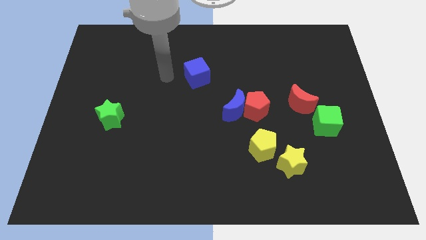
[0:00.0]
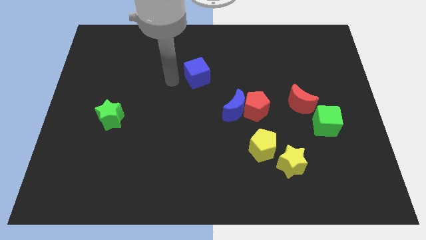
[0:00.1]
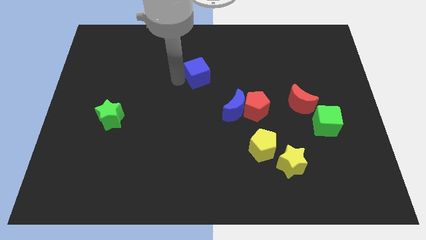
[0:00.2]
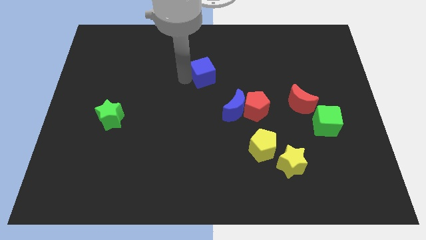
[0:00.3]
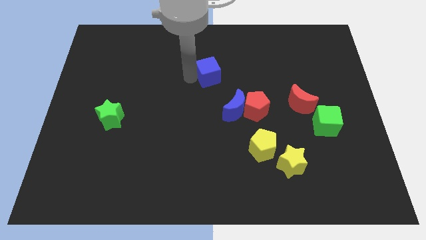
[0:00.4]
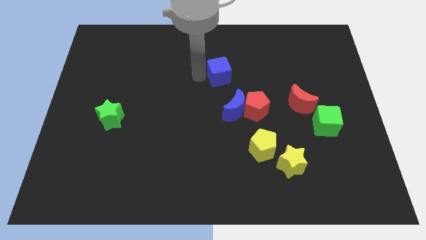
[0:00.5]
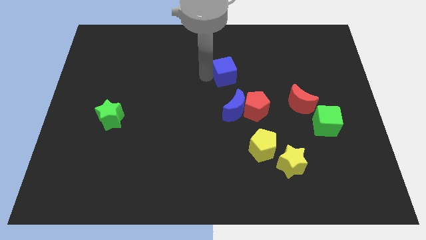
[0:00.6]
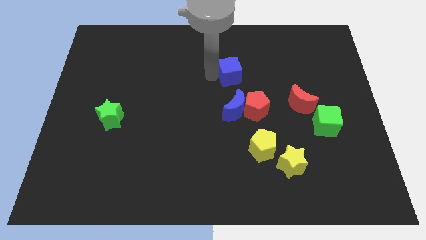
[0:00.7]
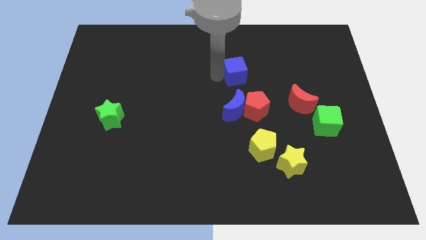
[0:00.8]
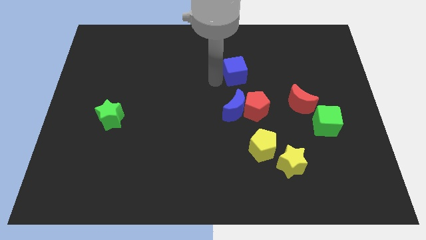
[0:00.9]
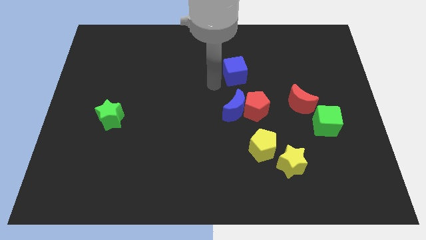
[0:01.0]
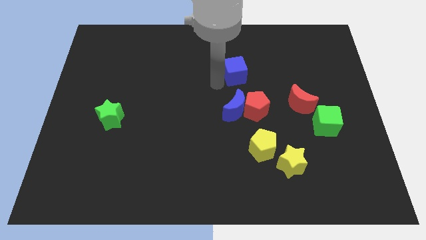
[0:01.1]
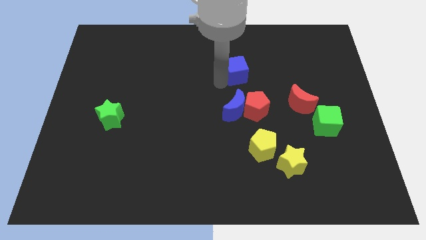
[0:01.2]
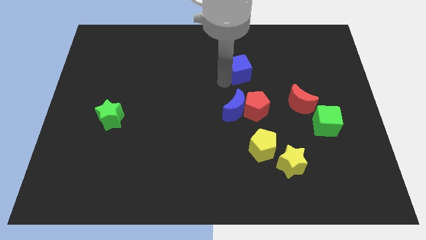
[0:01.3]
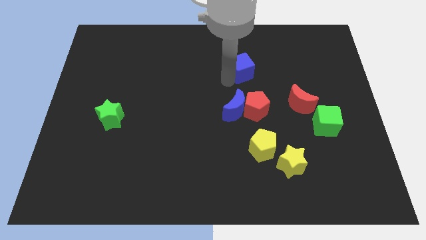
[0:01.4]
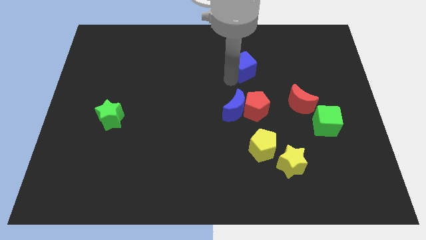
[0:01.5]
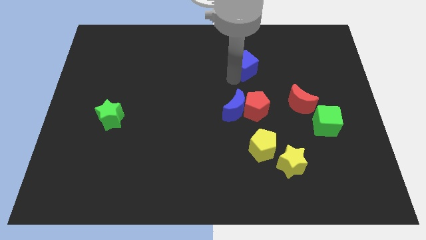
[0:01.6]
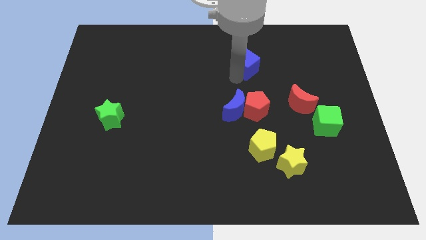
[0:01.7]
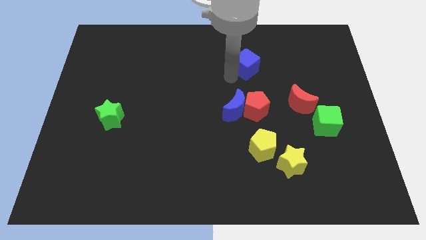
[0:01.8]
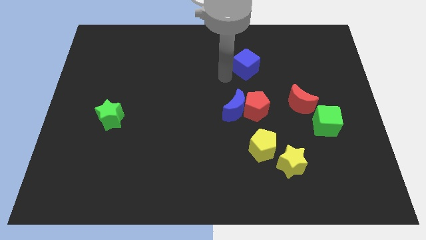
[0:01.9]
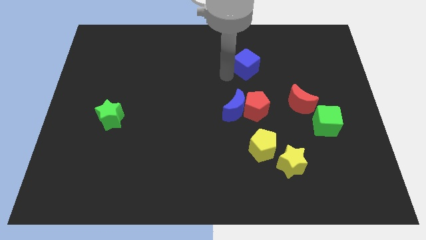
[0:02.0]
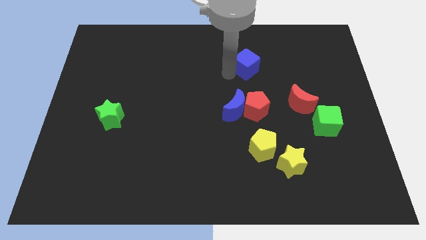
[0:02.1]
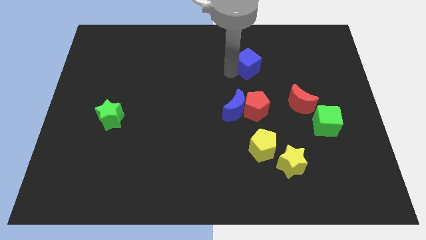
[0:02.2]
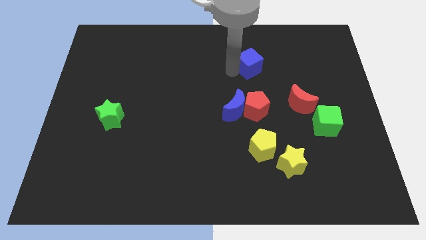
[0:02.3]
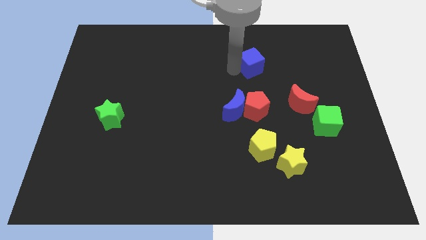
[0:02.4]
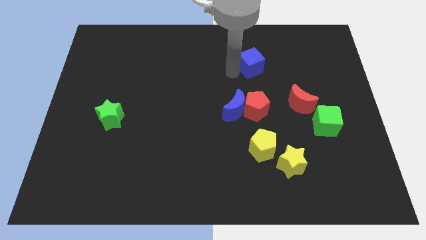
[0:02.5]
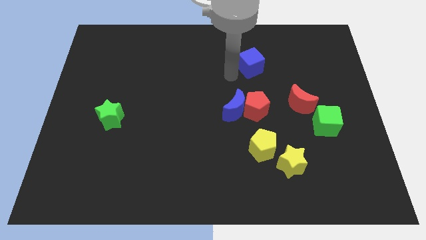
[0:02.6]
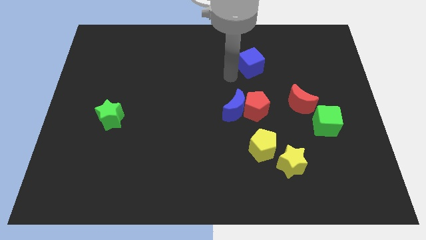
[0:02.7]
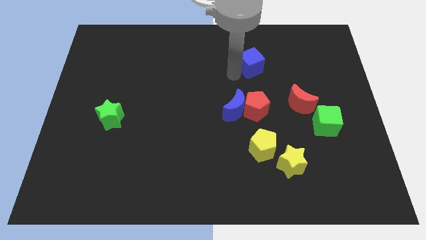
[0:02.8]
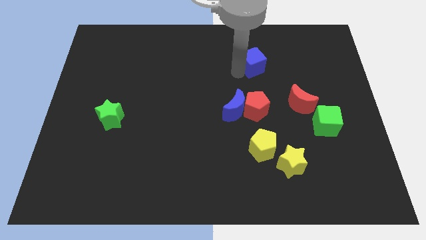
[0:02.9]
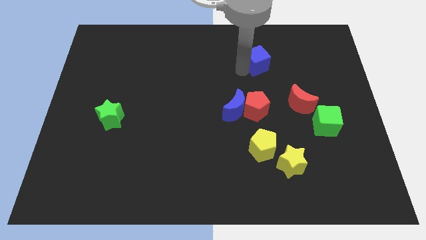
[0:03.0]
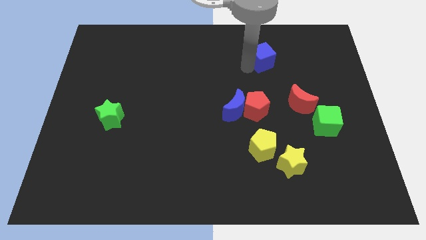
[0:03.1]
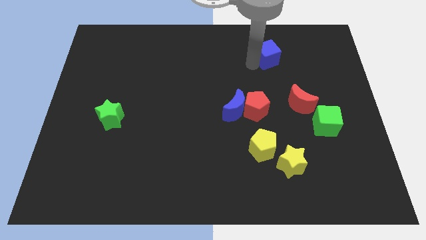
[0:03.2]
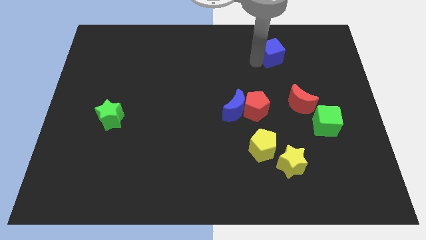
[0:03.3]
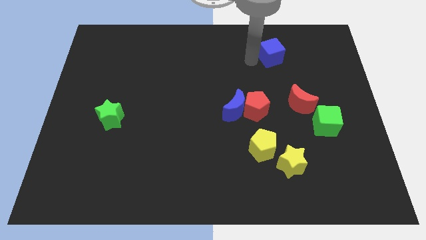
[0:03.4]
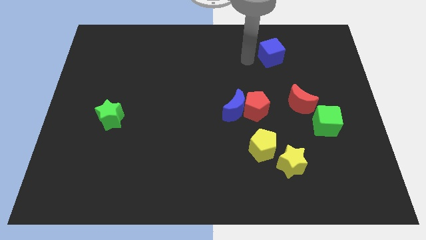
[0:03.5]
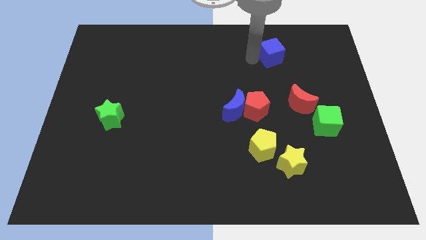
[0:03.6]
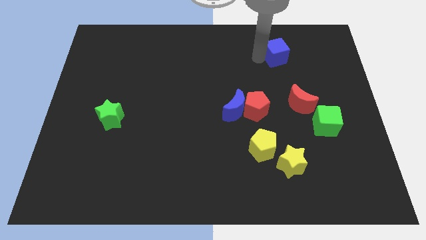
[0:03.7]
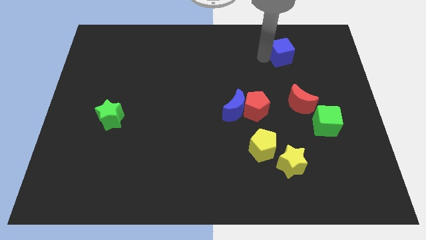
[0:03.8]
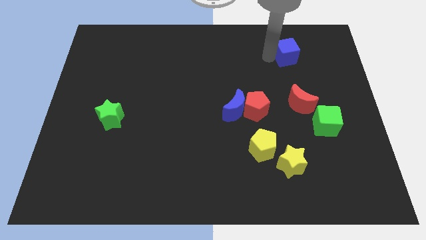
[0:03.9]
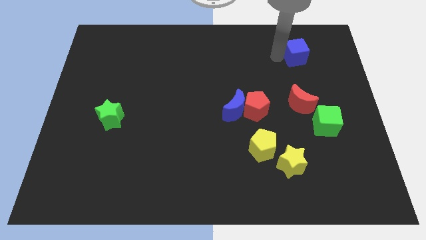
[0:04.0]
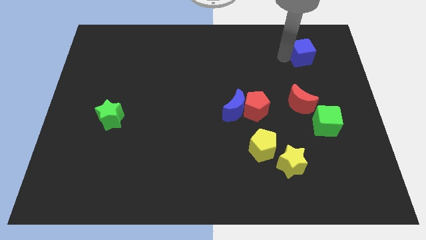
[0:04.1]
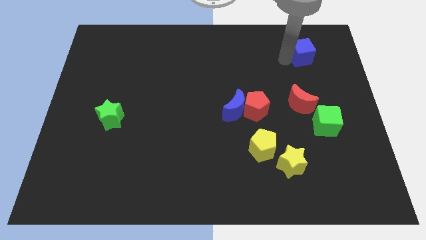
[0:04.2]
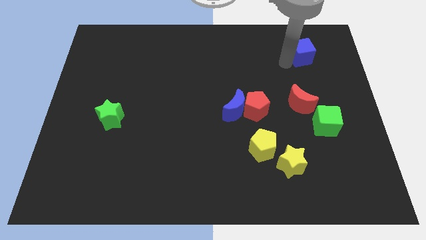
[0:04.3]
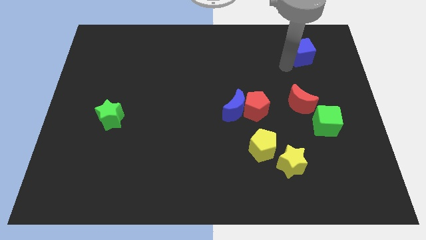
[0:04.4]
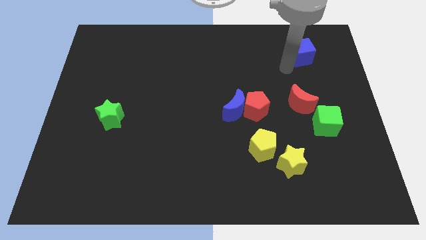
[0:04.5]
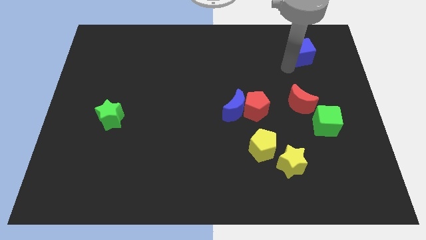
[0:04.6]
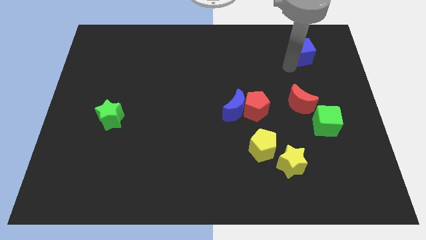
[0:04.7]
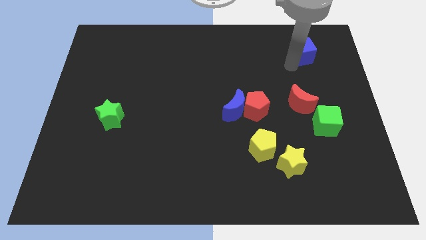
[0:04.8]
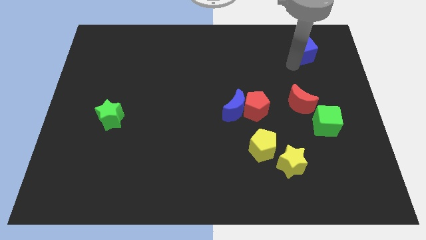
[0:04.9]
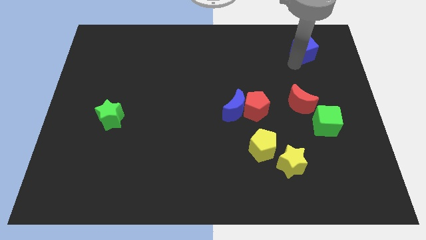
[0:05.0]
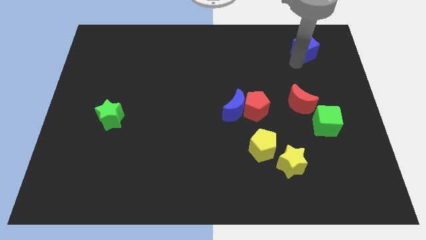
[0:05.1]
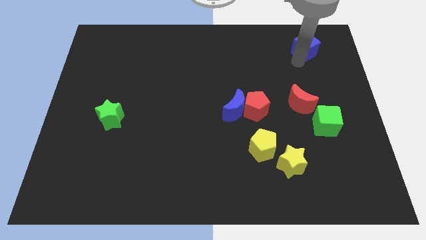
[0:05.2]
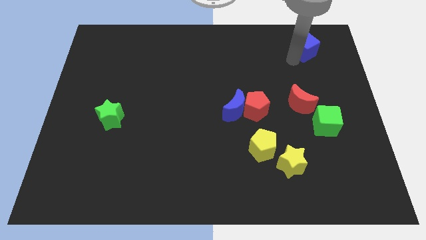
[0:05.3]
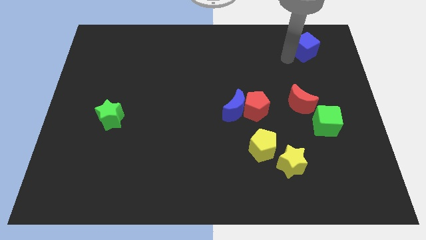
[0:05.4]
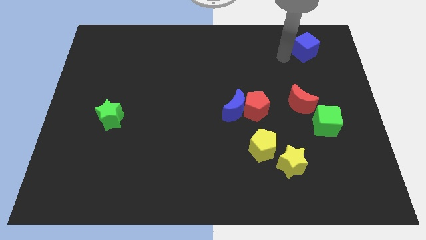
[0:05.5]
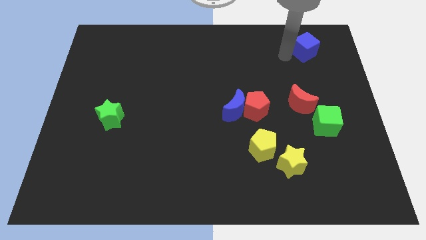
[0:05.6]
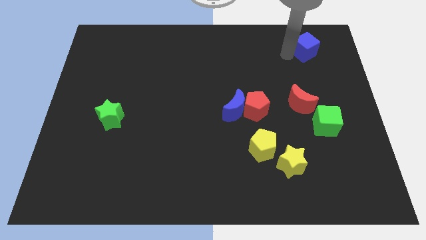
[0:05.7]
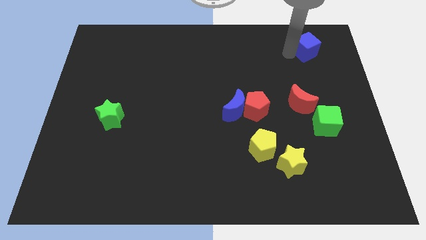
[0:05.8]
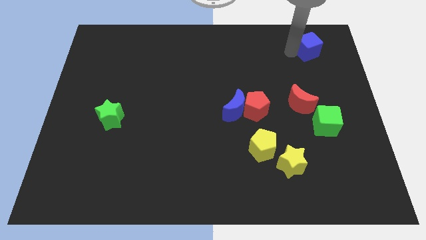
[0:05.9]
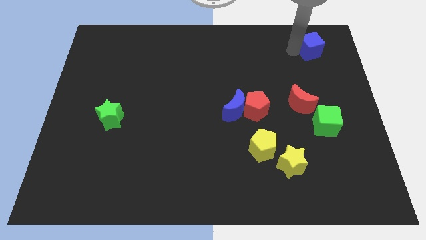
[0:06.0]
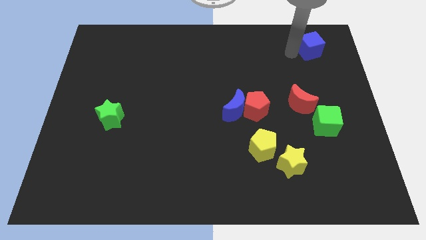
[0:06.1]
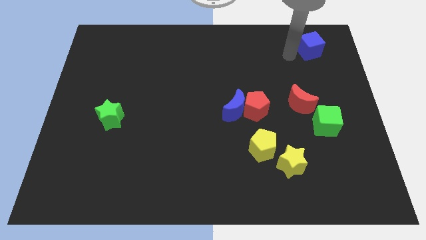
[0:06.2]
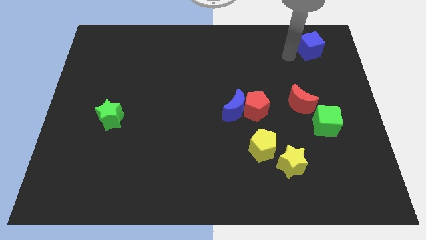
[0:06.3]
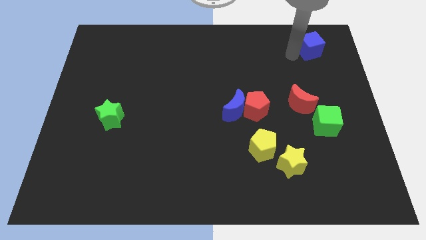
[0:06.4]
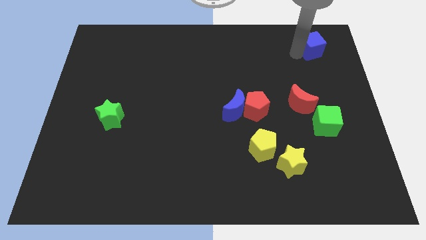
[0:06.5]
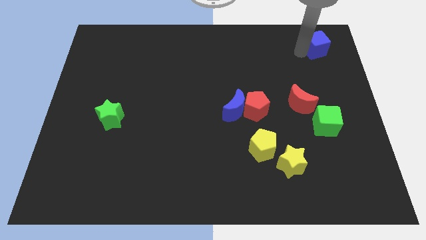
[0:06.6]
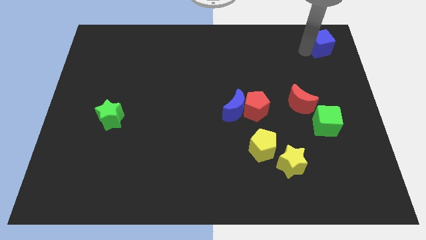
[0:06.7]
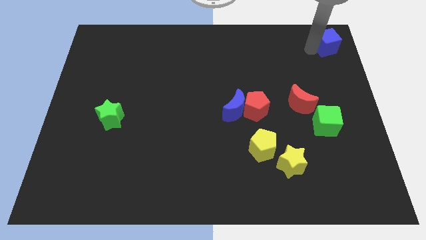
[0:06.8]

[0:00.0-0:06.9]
push the blue cube to the top right of the board
